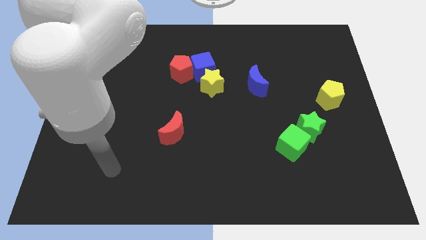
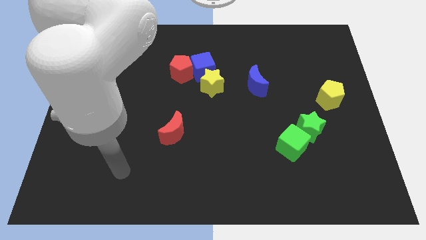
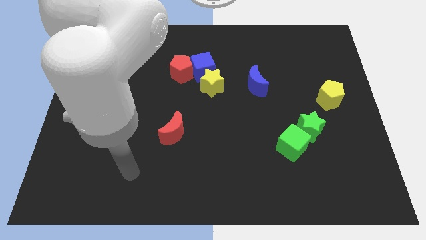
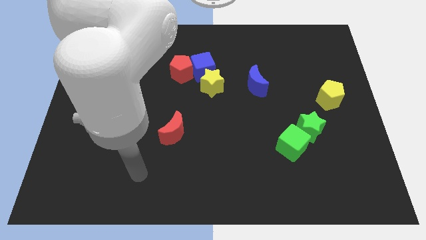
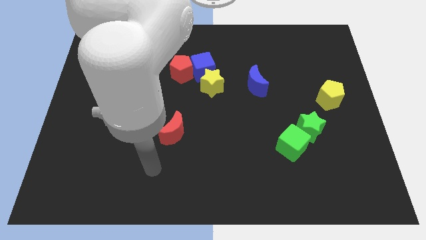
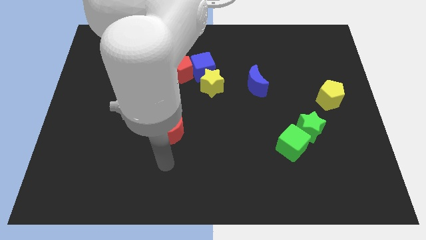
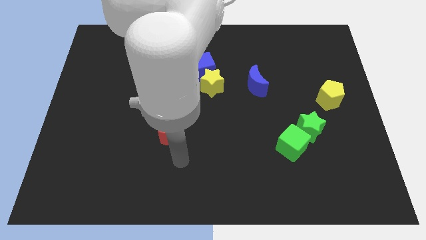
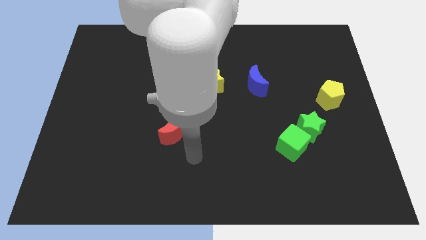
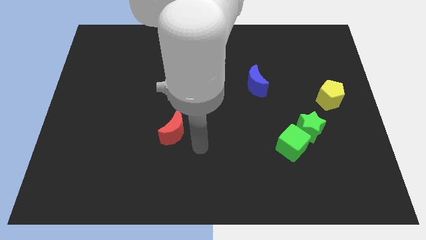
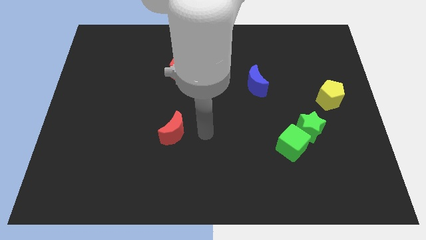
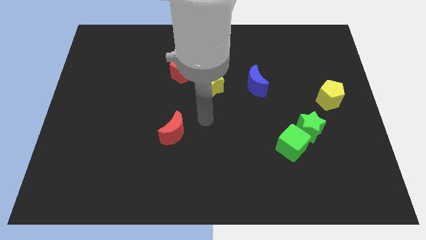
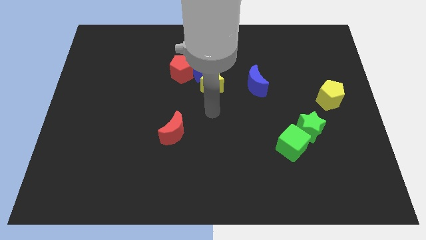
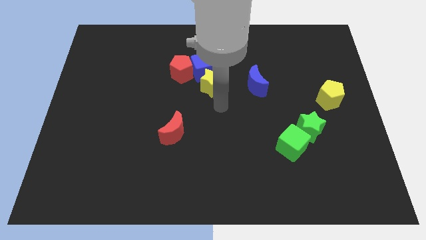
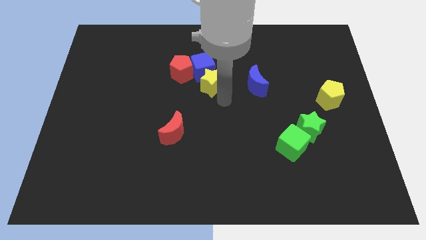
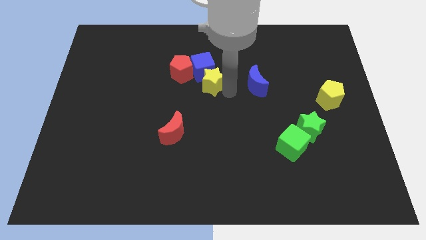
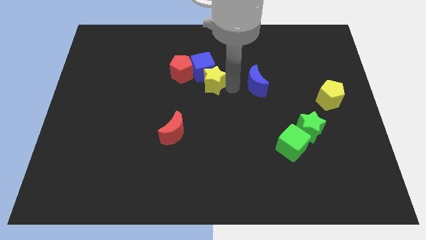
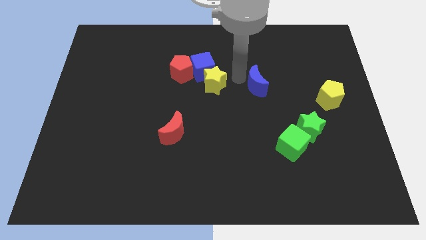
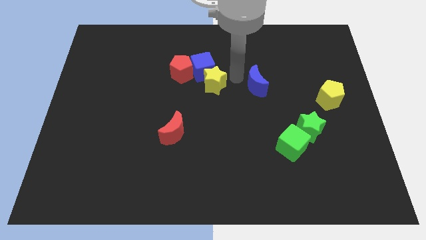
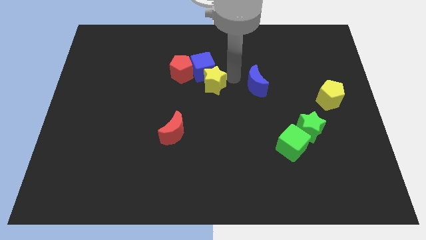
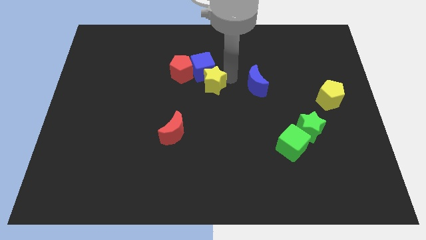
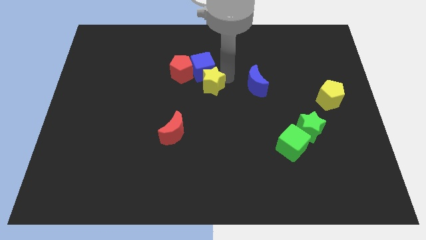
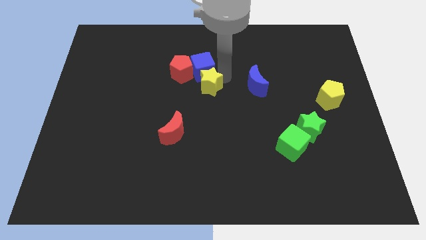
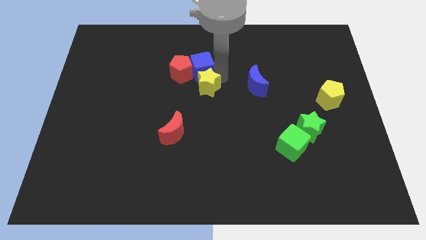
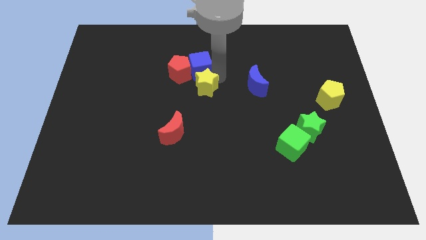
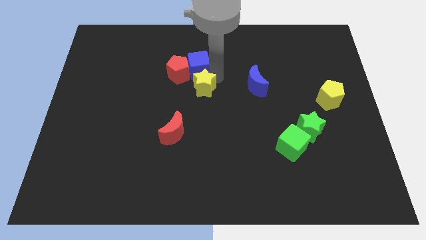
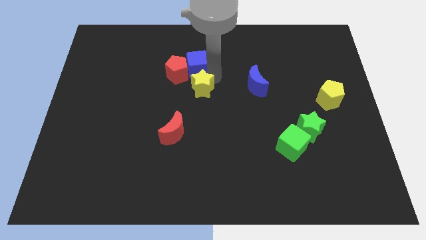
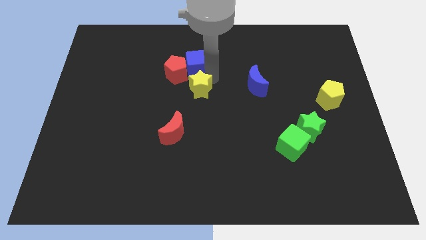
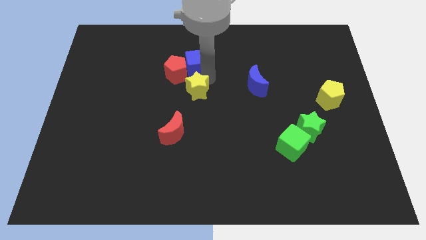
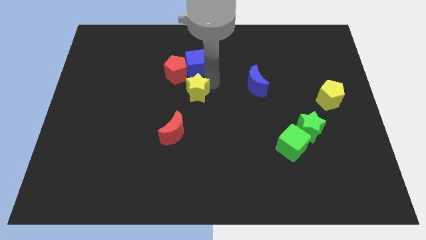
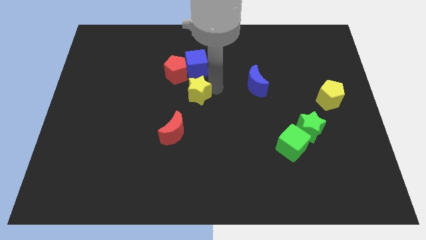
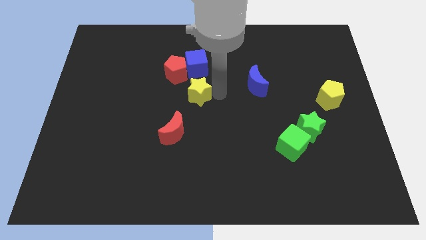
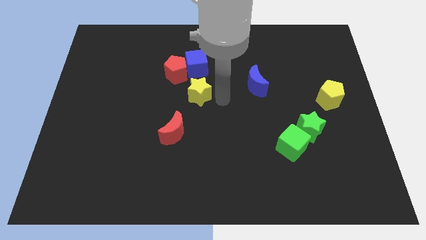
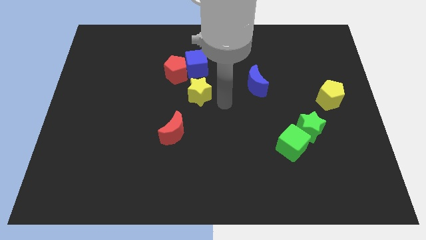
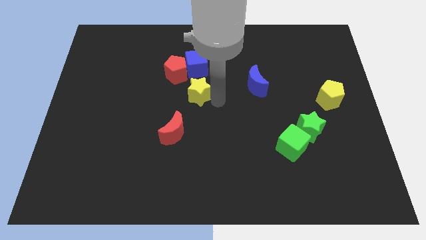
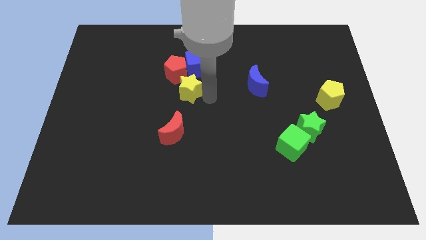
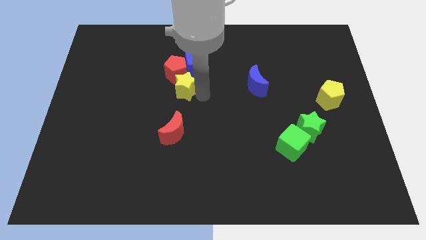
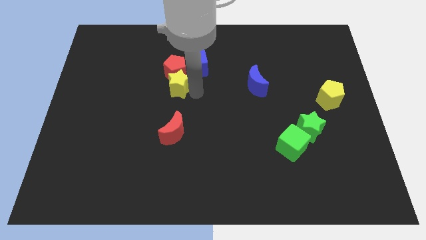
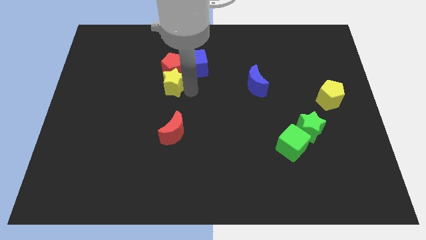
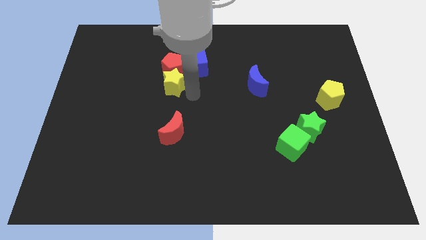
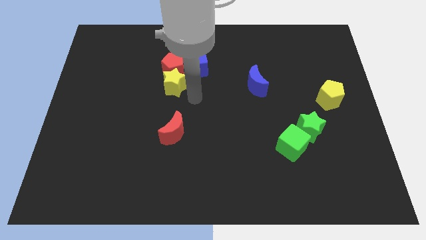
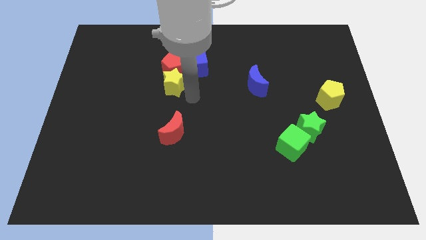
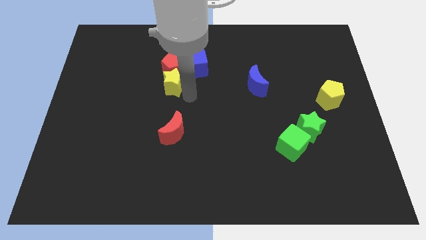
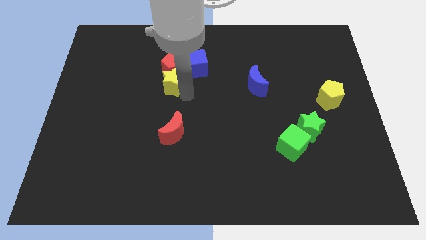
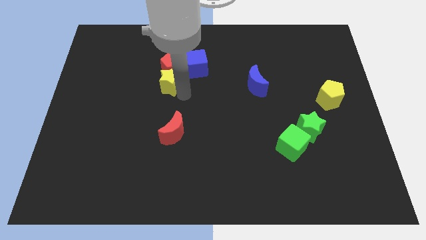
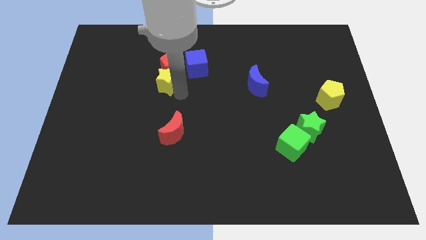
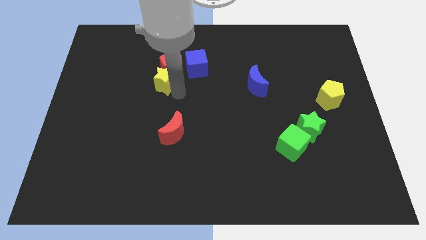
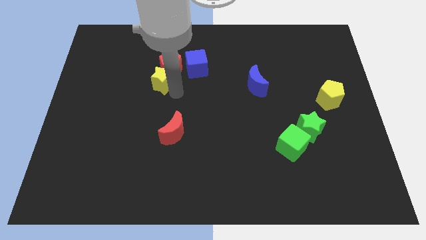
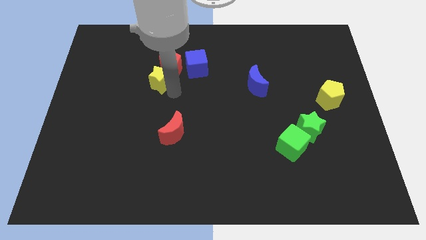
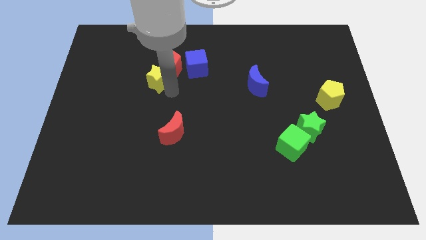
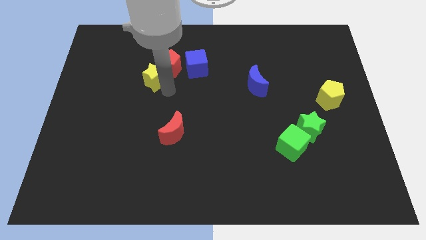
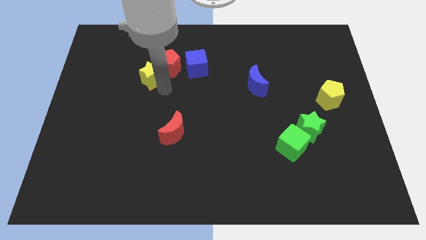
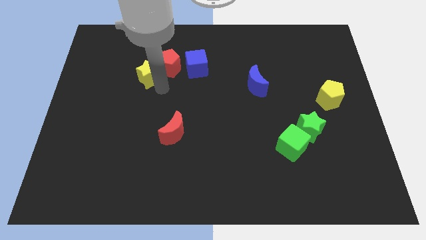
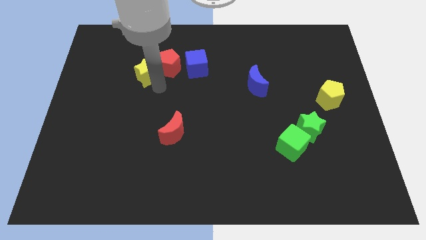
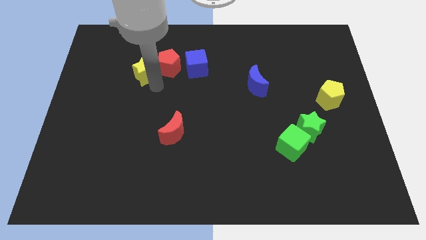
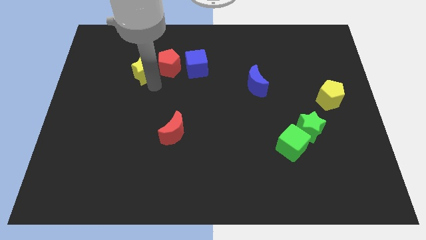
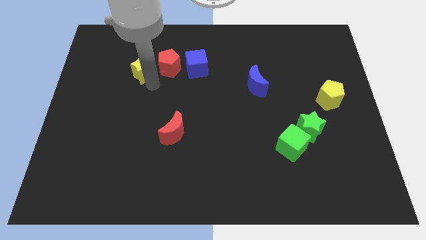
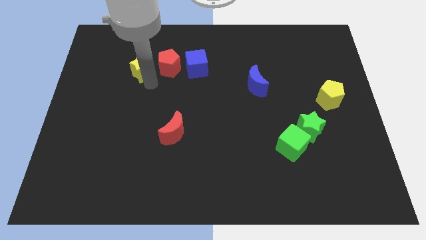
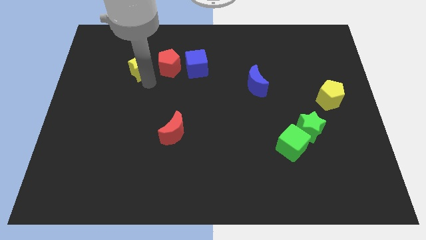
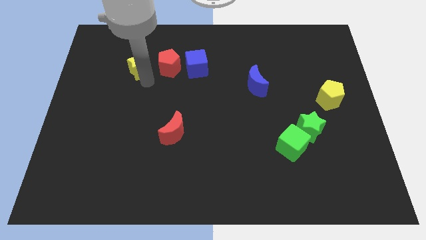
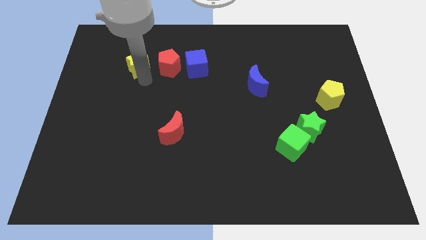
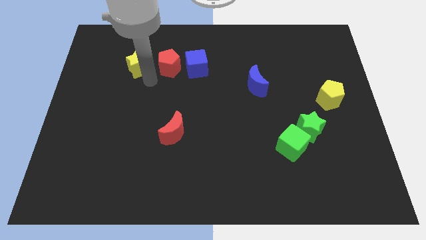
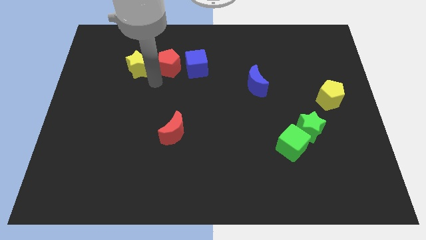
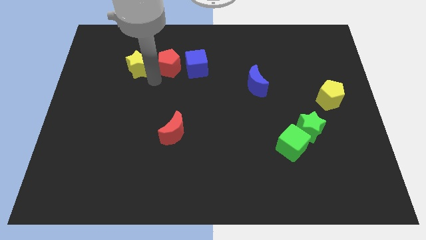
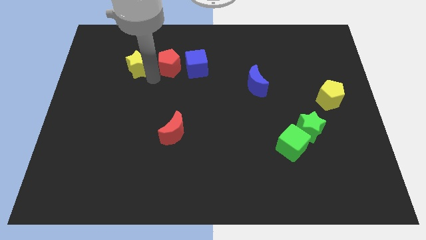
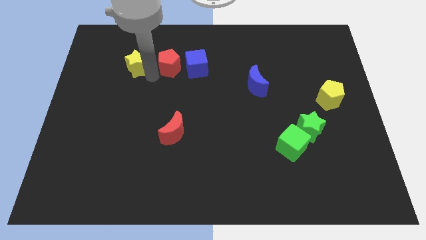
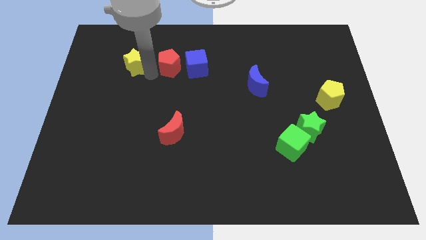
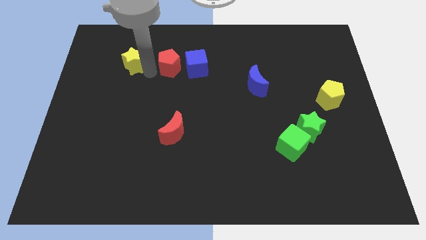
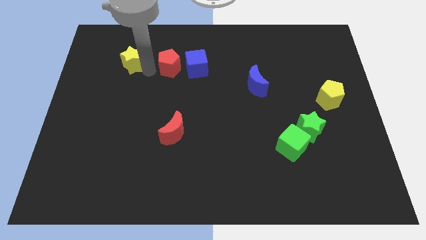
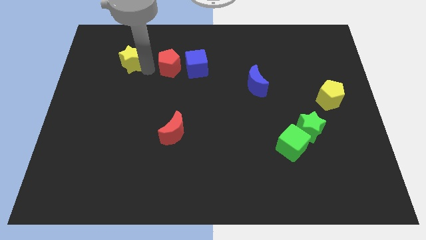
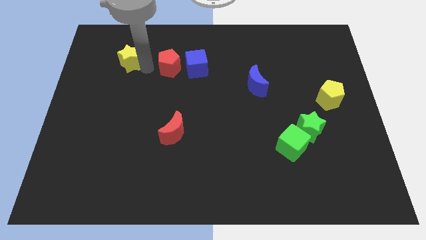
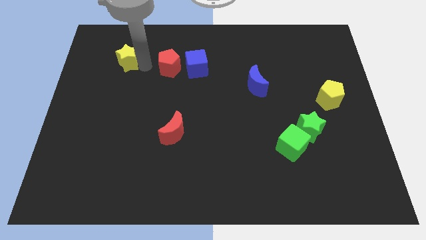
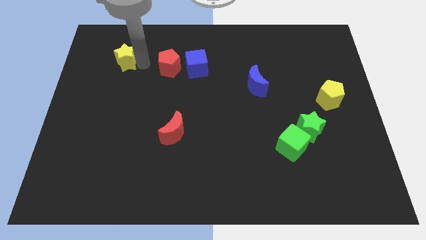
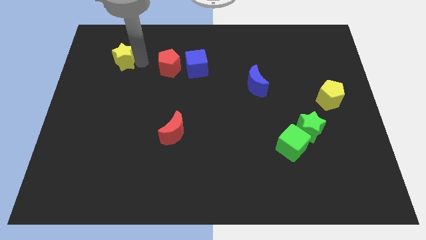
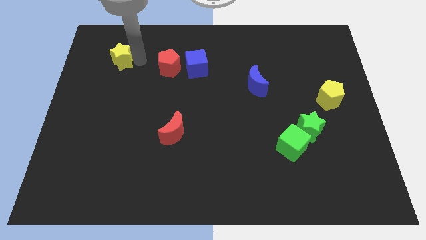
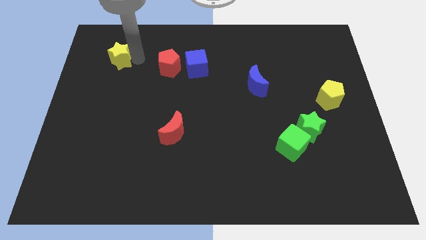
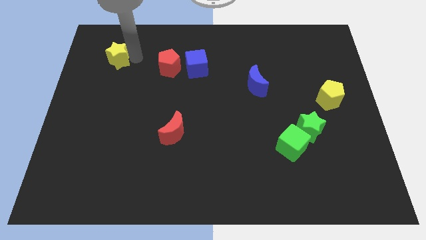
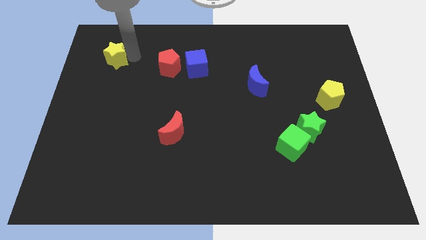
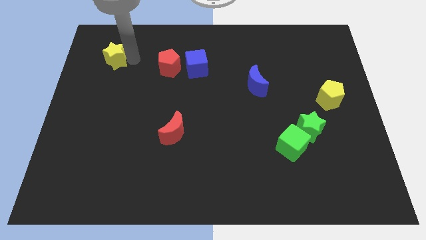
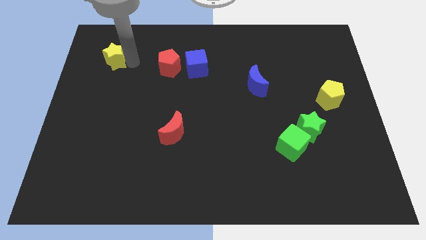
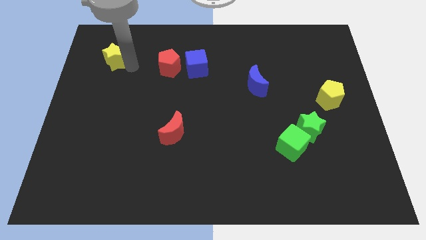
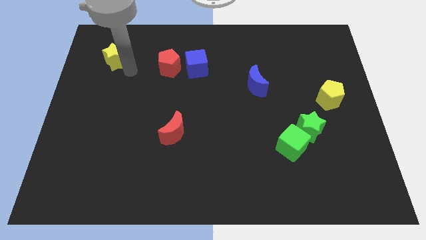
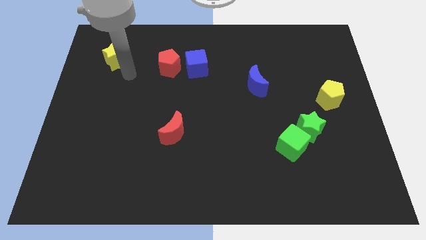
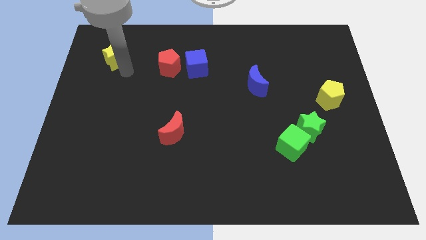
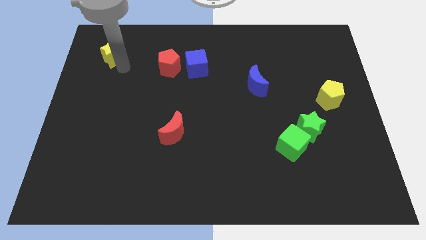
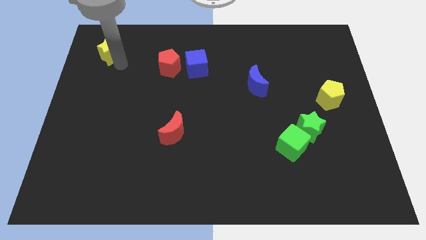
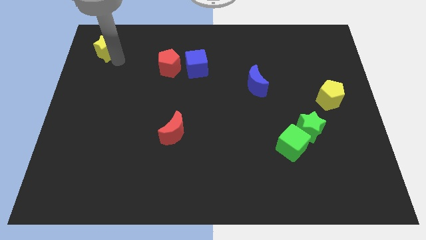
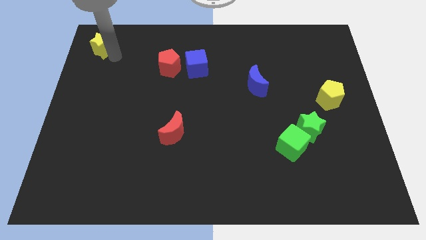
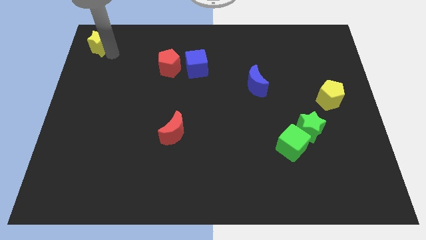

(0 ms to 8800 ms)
move the yellow star to the upper left corner
